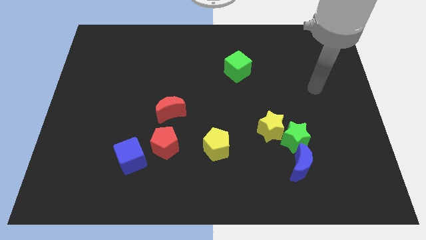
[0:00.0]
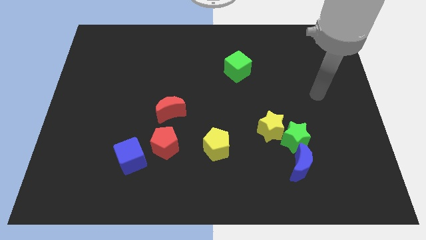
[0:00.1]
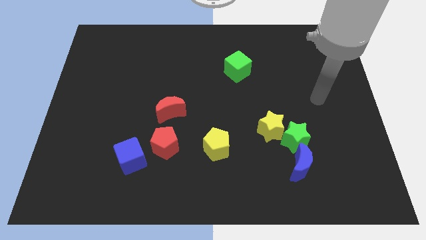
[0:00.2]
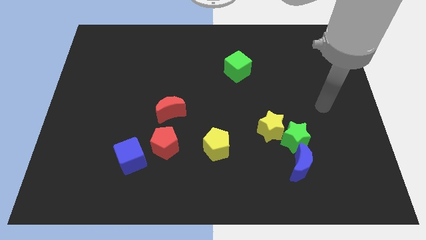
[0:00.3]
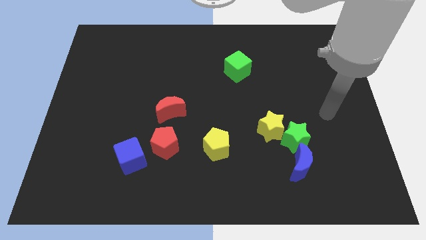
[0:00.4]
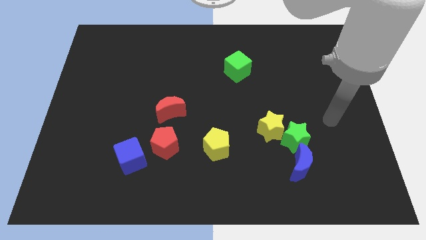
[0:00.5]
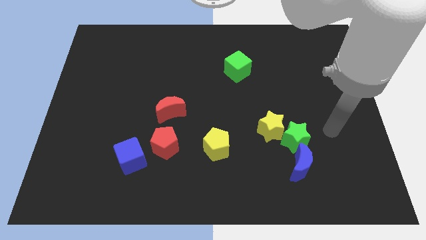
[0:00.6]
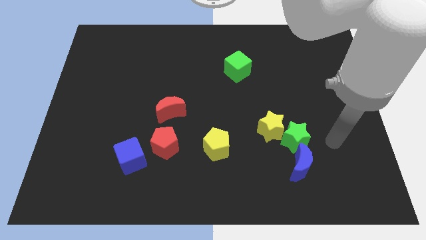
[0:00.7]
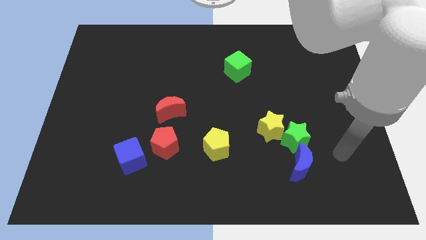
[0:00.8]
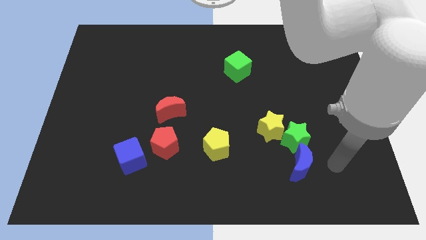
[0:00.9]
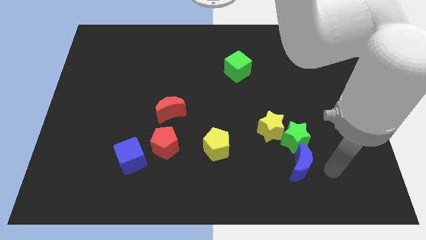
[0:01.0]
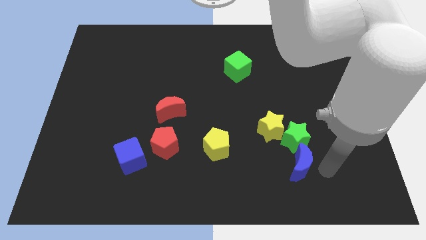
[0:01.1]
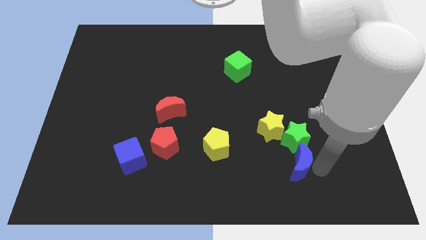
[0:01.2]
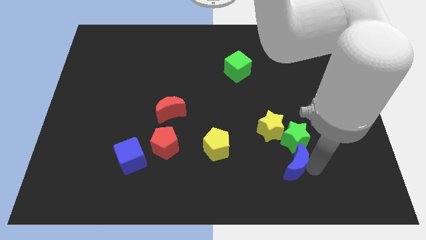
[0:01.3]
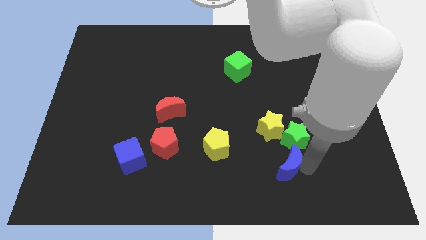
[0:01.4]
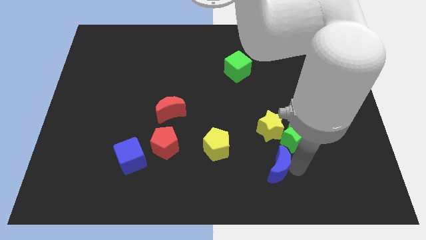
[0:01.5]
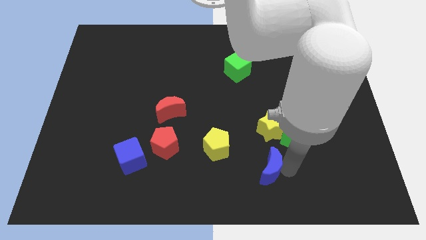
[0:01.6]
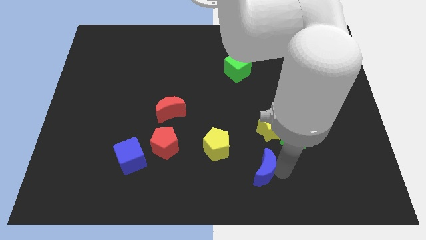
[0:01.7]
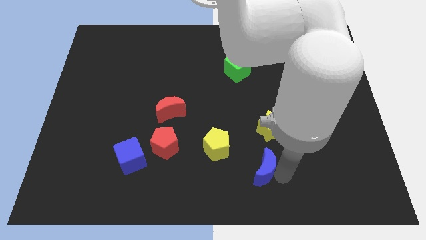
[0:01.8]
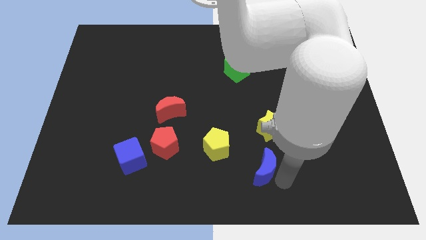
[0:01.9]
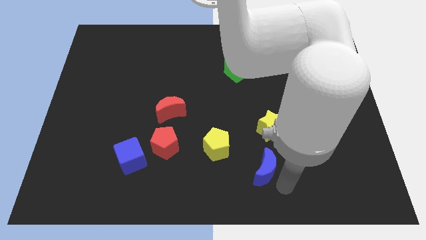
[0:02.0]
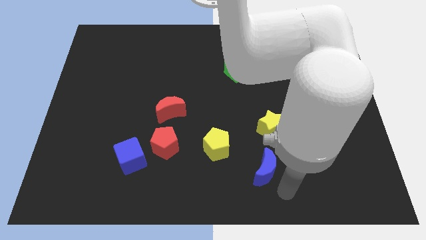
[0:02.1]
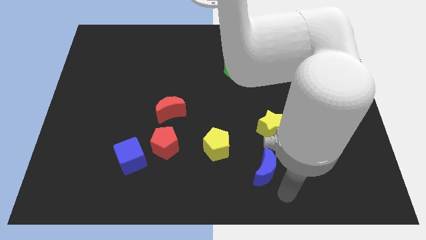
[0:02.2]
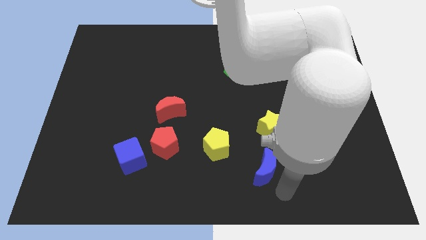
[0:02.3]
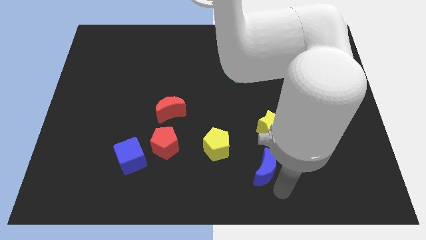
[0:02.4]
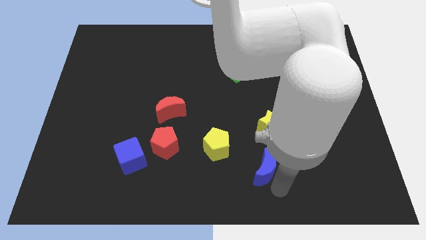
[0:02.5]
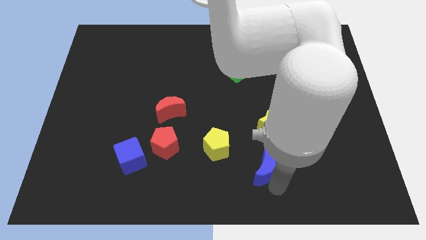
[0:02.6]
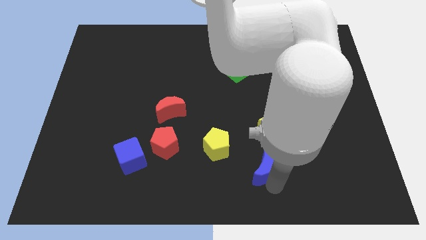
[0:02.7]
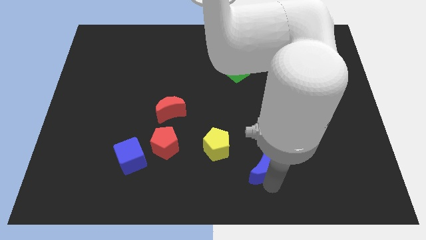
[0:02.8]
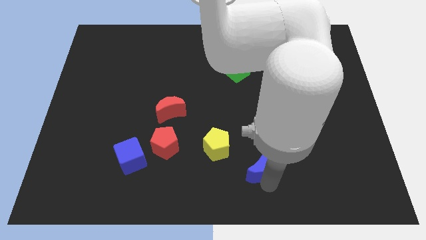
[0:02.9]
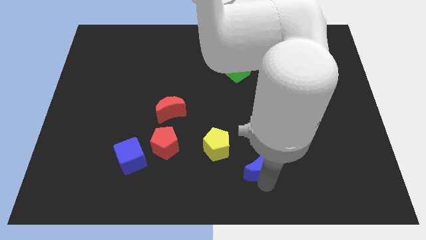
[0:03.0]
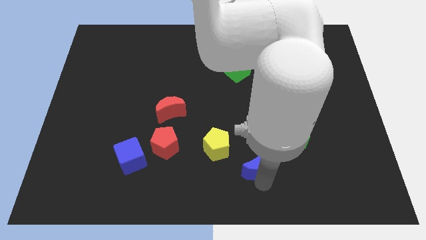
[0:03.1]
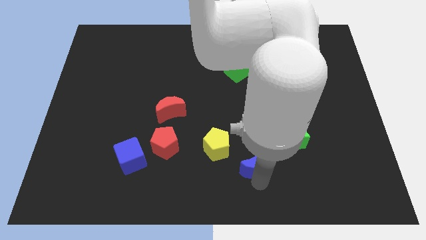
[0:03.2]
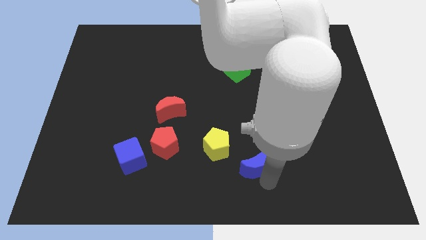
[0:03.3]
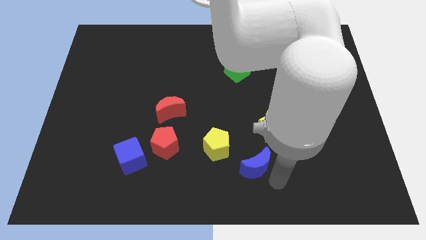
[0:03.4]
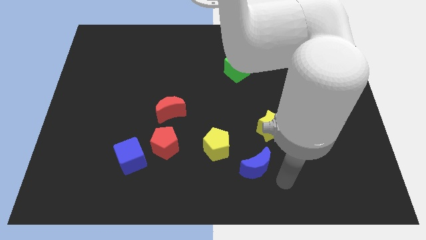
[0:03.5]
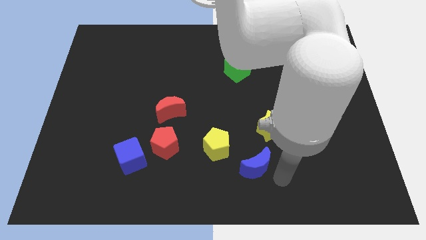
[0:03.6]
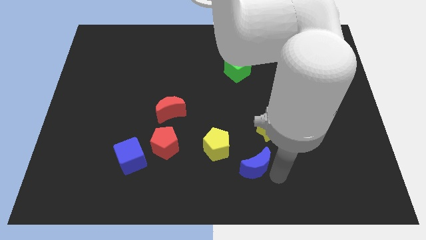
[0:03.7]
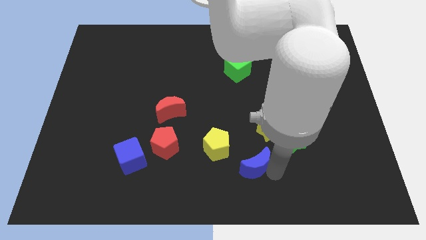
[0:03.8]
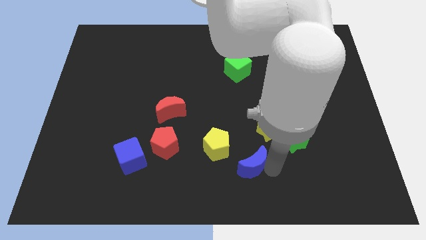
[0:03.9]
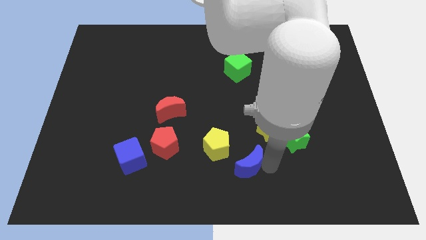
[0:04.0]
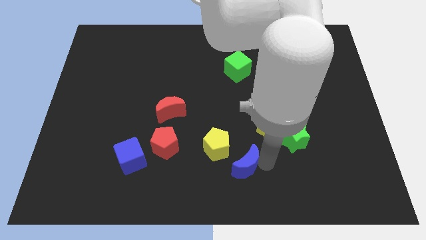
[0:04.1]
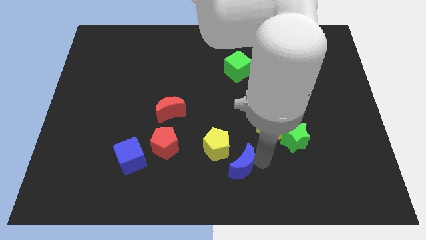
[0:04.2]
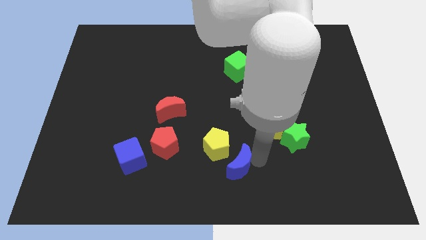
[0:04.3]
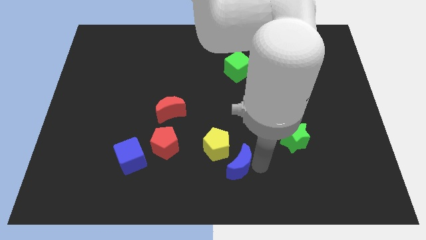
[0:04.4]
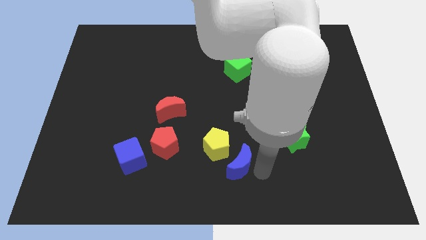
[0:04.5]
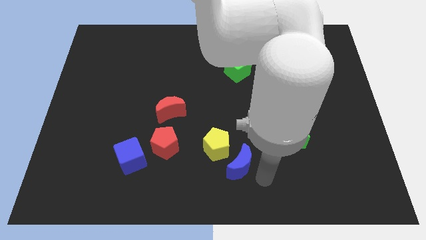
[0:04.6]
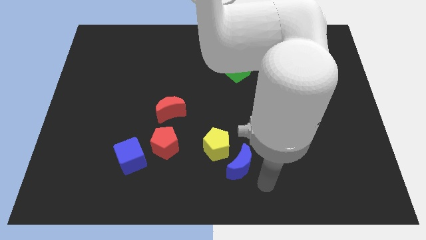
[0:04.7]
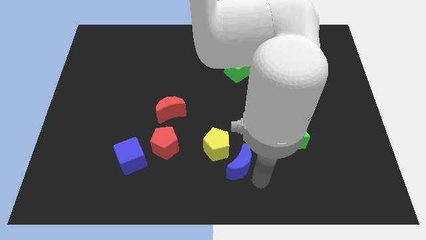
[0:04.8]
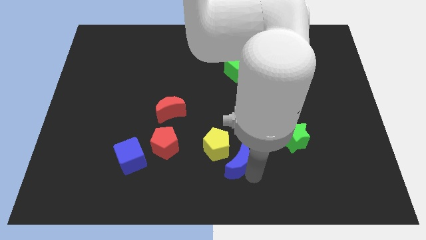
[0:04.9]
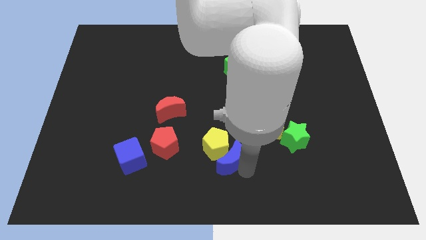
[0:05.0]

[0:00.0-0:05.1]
put the blue moon next to the yellow pentagon

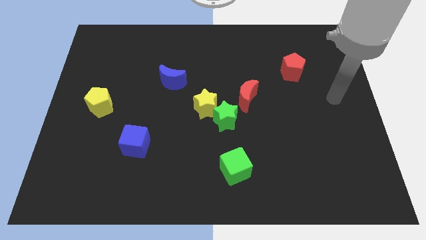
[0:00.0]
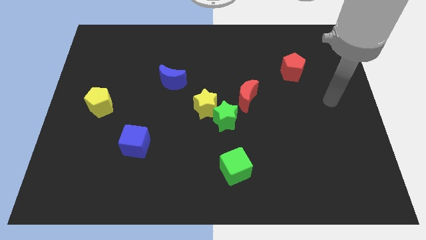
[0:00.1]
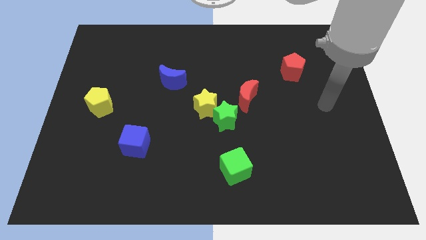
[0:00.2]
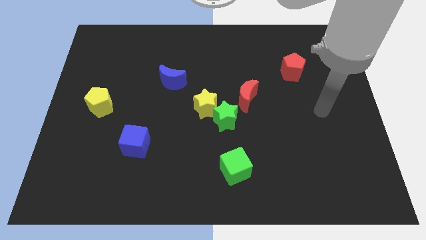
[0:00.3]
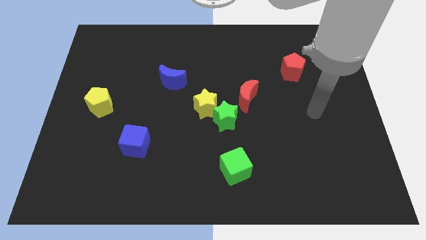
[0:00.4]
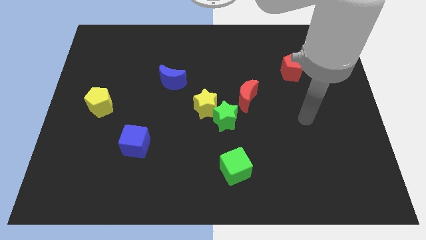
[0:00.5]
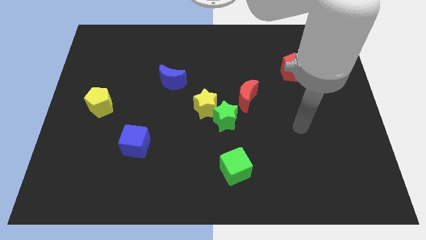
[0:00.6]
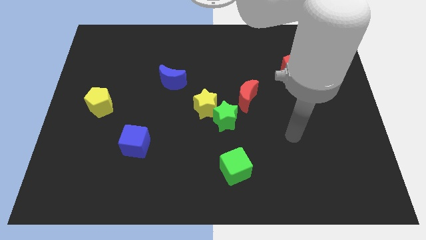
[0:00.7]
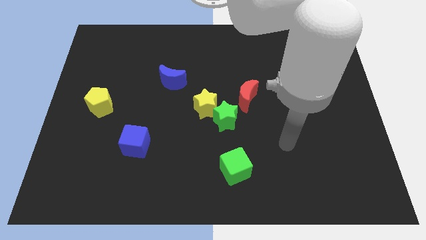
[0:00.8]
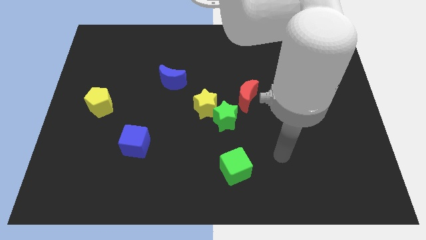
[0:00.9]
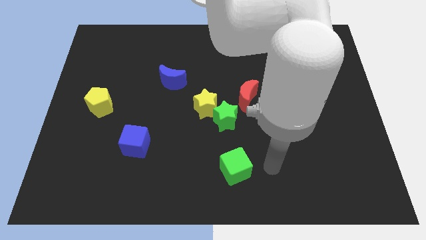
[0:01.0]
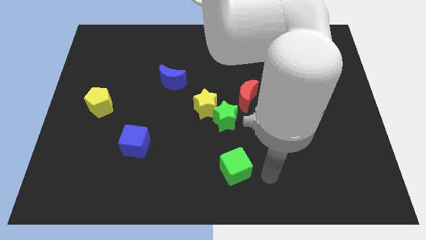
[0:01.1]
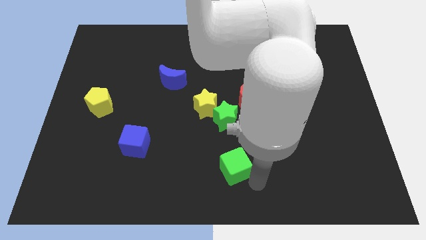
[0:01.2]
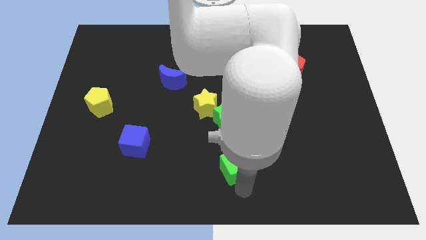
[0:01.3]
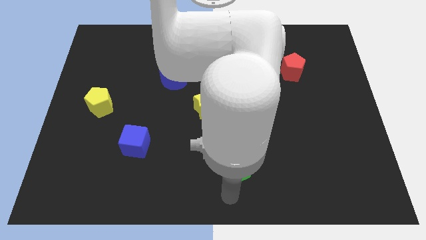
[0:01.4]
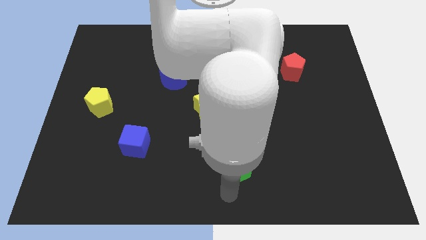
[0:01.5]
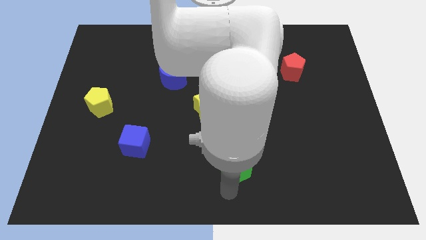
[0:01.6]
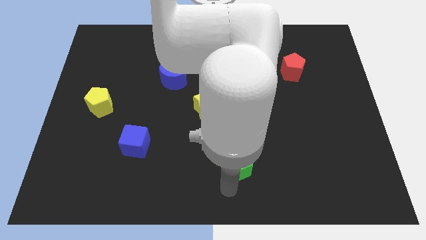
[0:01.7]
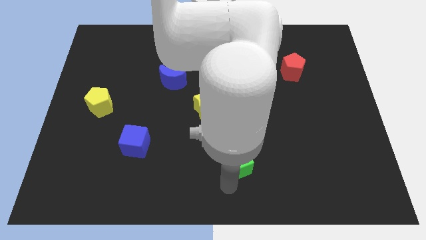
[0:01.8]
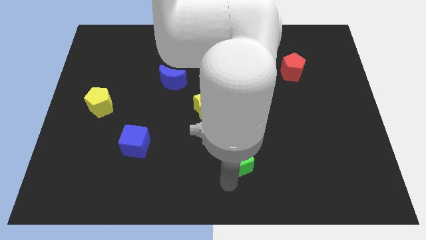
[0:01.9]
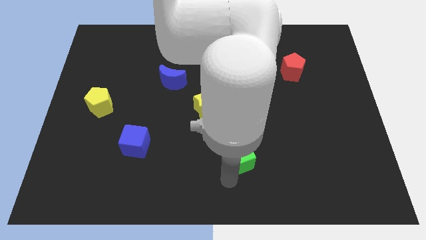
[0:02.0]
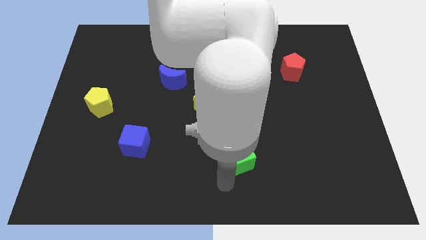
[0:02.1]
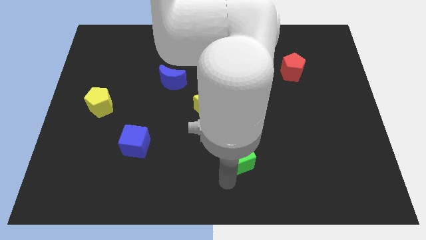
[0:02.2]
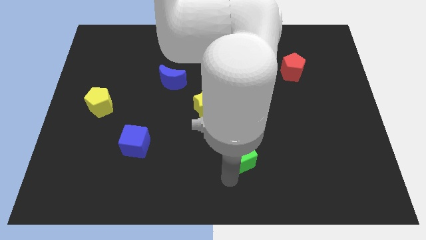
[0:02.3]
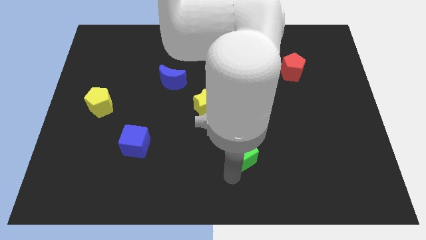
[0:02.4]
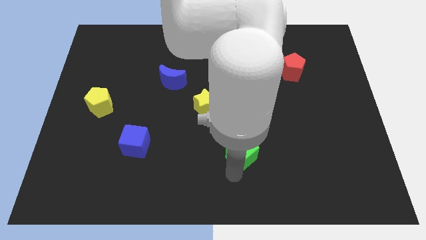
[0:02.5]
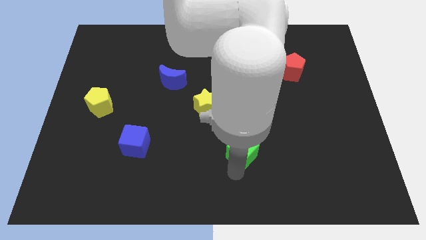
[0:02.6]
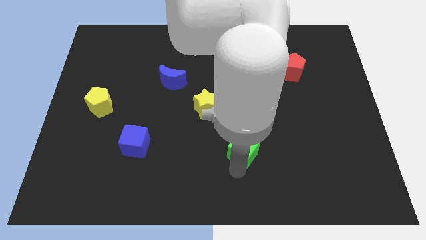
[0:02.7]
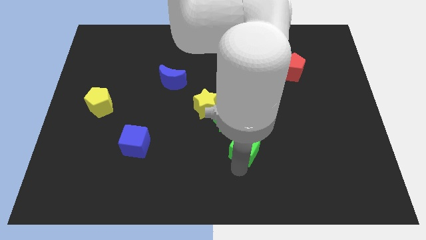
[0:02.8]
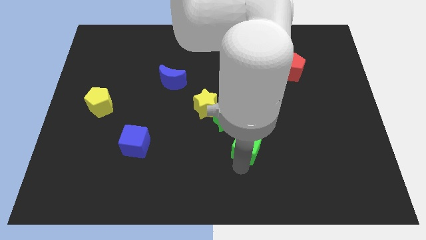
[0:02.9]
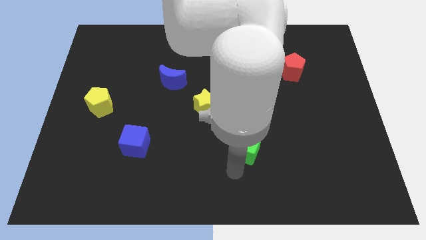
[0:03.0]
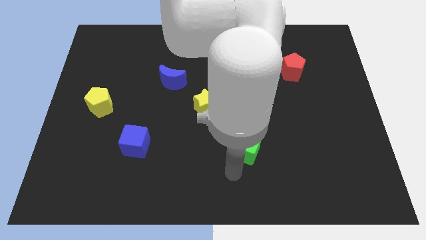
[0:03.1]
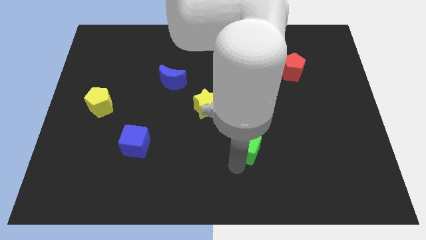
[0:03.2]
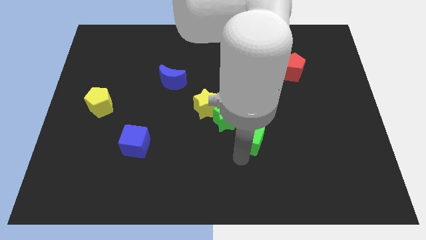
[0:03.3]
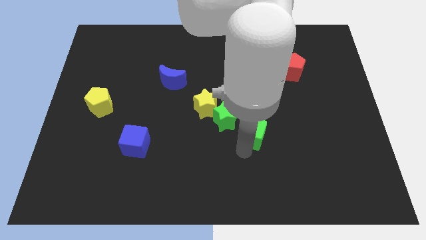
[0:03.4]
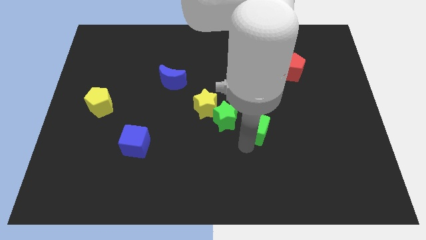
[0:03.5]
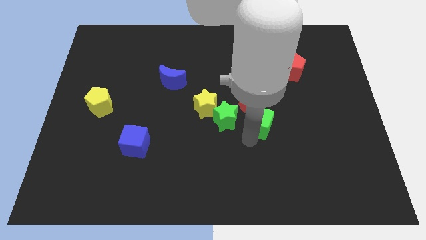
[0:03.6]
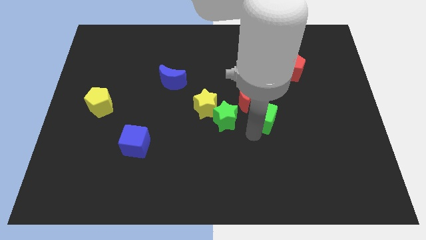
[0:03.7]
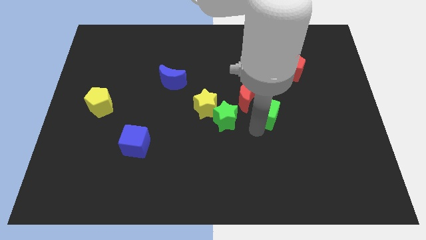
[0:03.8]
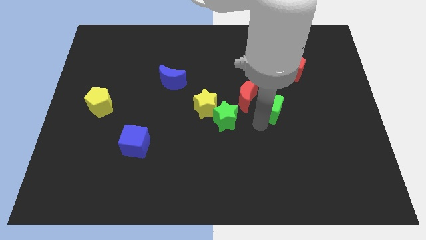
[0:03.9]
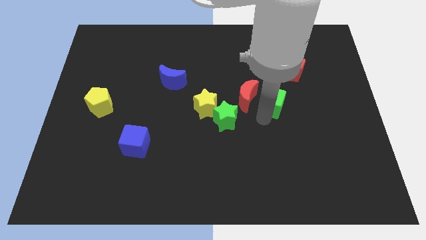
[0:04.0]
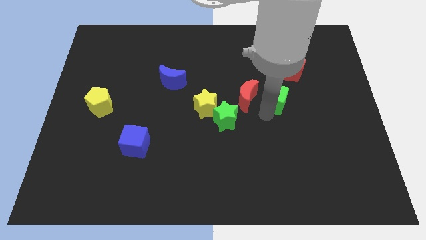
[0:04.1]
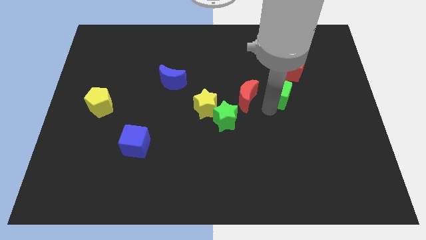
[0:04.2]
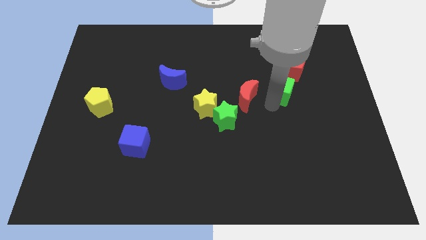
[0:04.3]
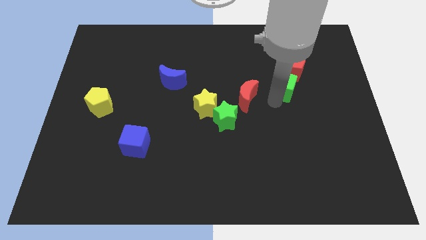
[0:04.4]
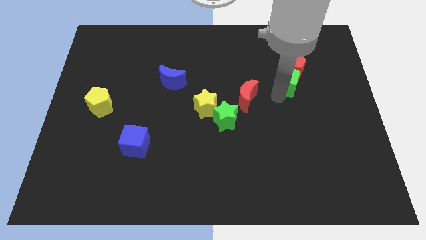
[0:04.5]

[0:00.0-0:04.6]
put the green cube to the red pentagon
